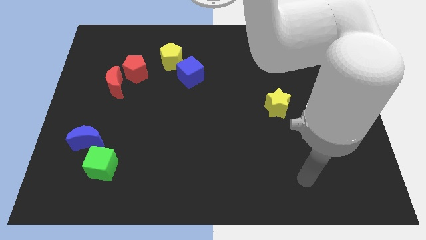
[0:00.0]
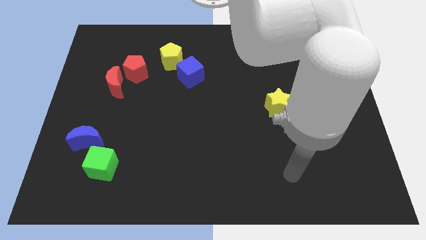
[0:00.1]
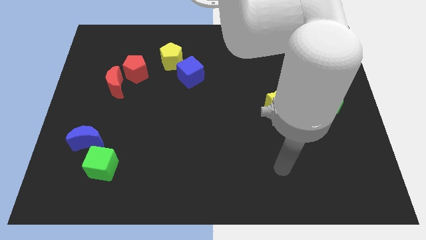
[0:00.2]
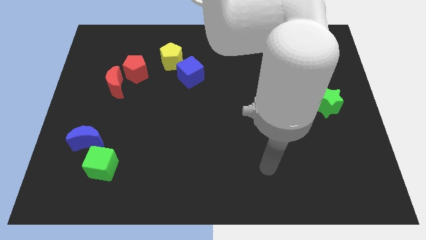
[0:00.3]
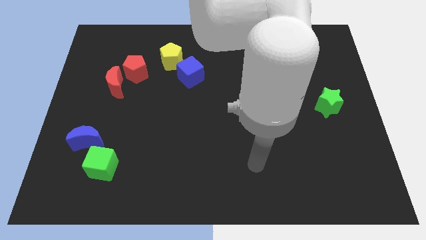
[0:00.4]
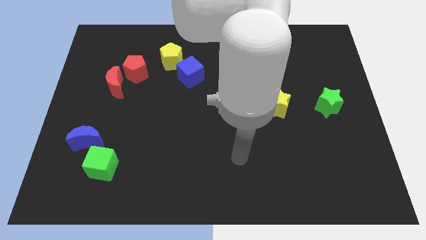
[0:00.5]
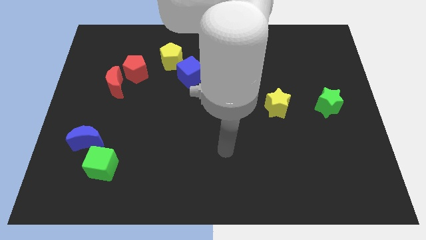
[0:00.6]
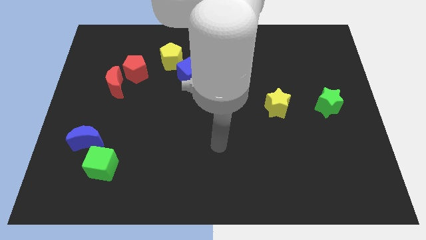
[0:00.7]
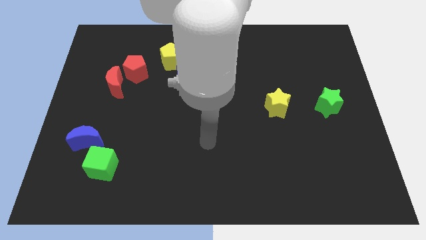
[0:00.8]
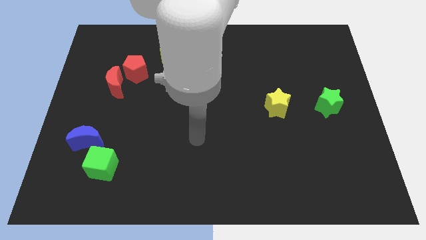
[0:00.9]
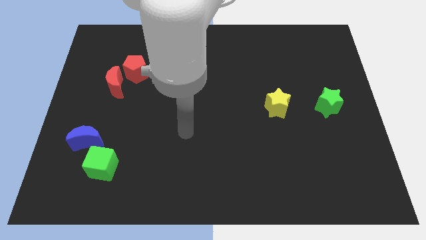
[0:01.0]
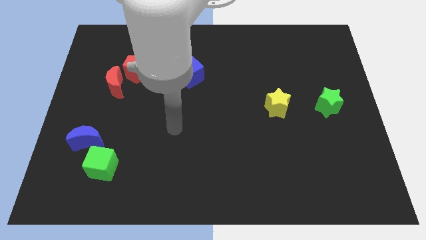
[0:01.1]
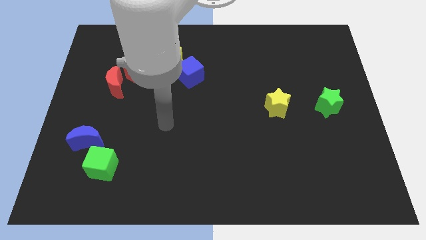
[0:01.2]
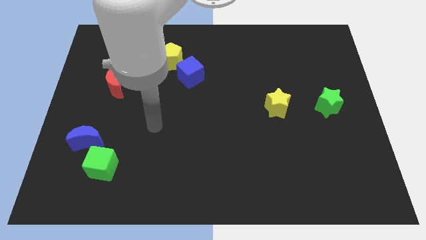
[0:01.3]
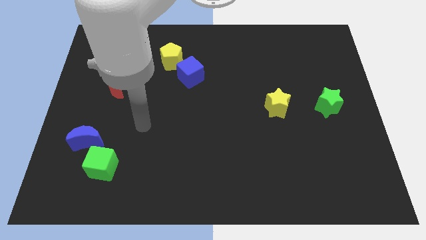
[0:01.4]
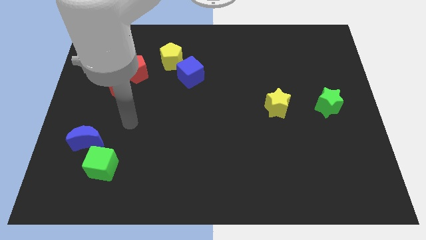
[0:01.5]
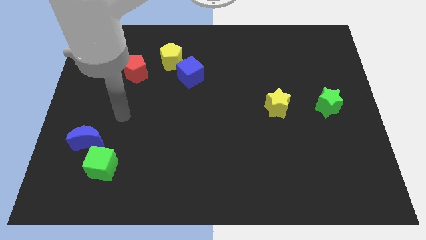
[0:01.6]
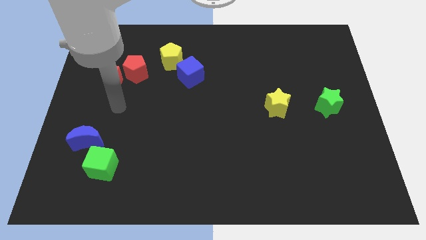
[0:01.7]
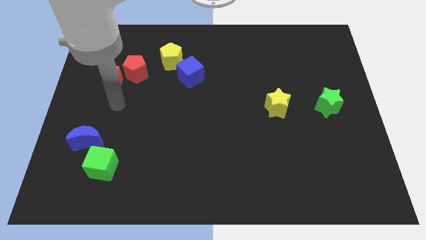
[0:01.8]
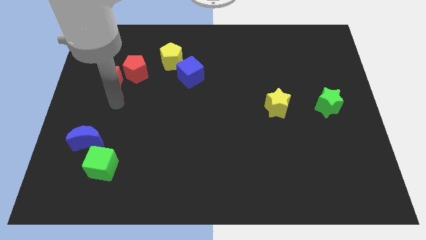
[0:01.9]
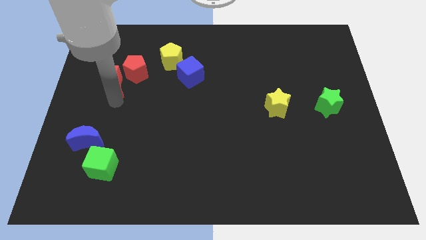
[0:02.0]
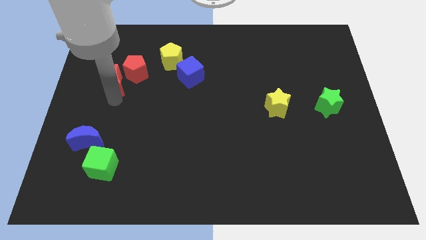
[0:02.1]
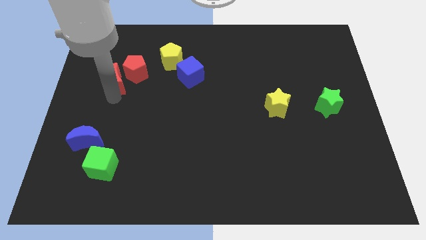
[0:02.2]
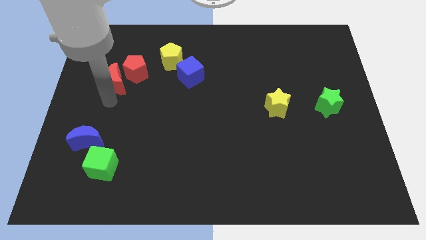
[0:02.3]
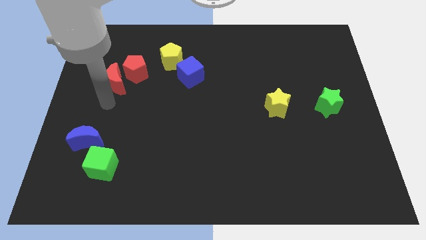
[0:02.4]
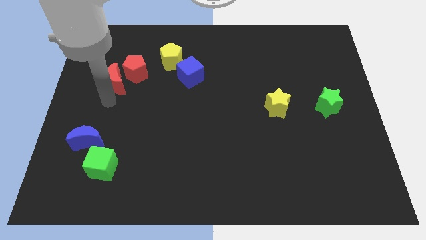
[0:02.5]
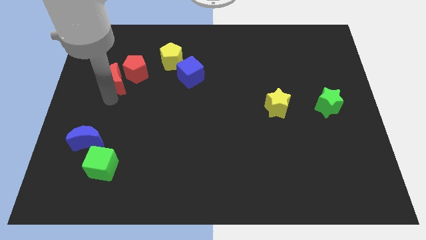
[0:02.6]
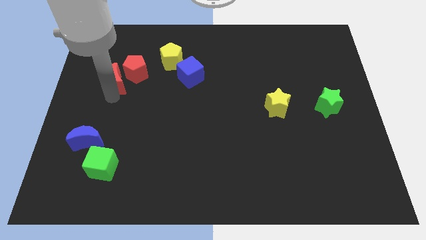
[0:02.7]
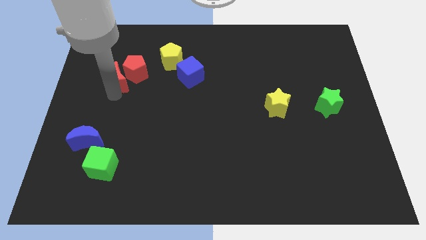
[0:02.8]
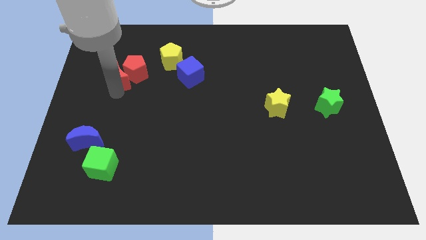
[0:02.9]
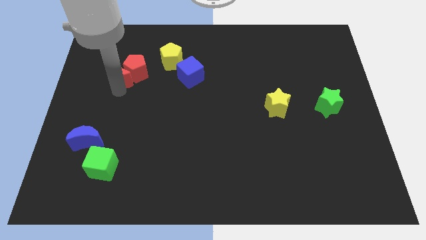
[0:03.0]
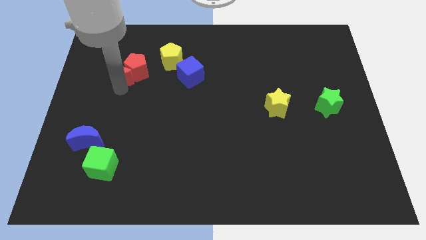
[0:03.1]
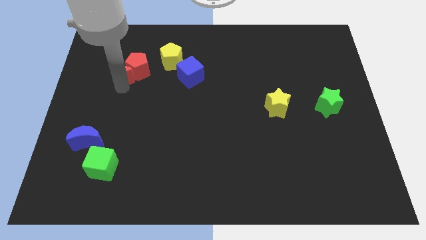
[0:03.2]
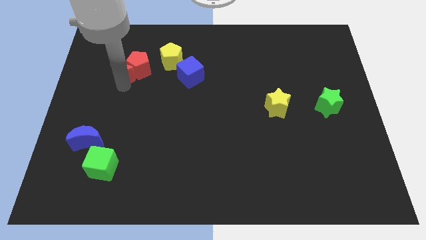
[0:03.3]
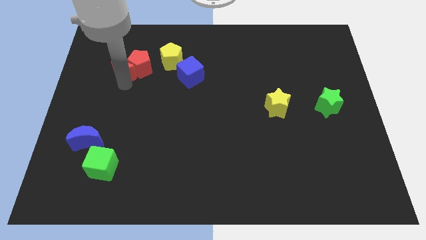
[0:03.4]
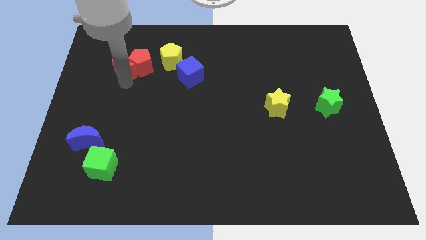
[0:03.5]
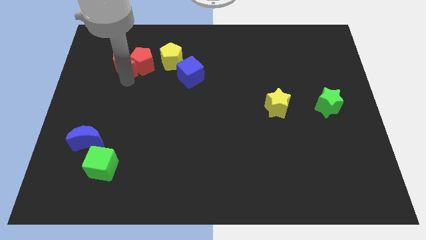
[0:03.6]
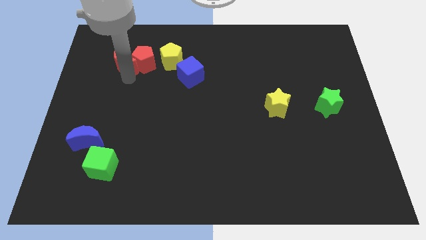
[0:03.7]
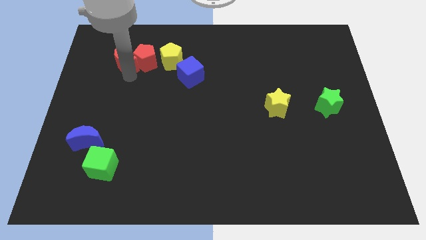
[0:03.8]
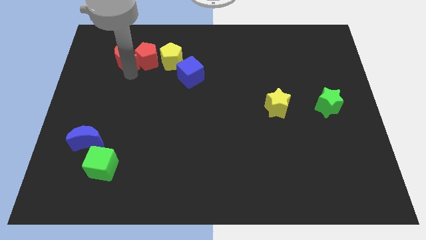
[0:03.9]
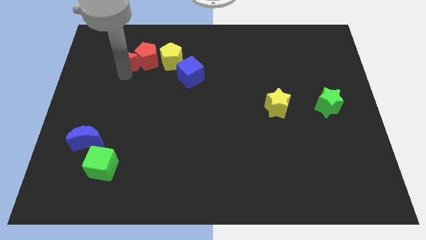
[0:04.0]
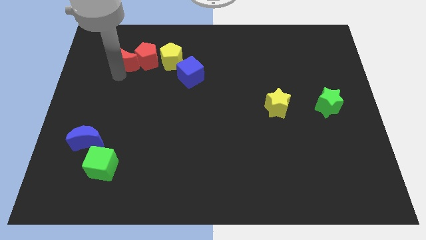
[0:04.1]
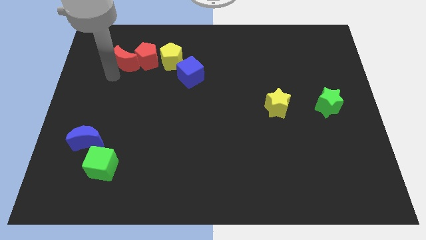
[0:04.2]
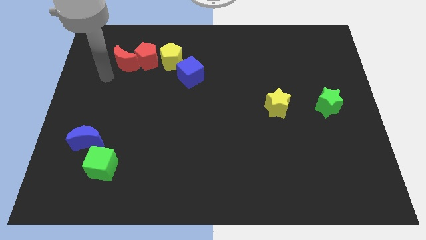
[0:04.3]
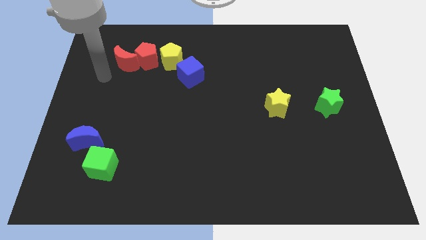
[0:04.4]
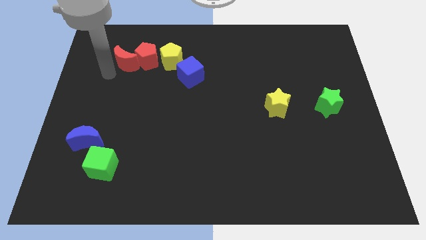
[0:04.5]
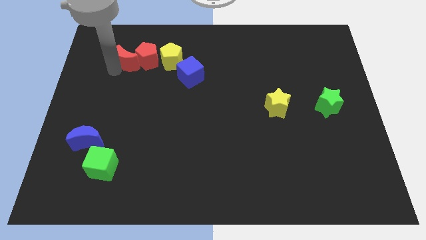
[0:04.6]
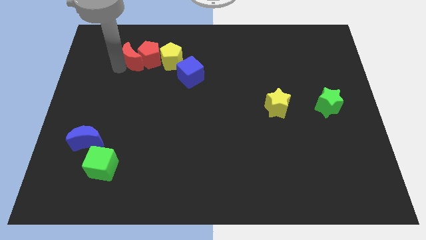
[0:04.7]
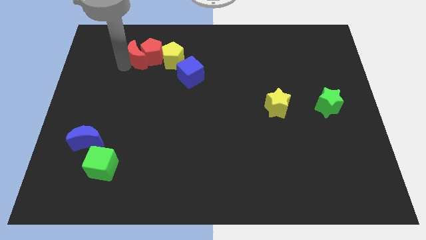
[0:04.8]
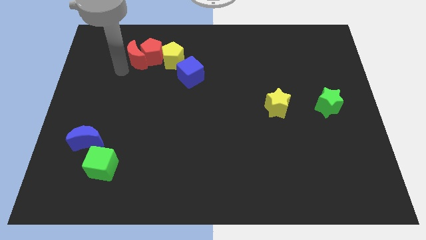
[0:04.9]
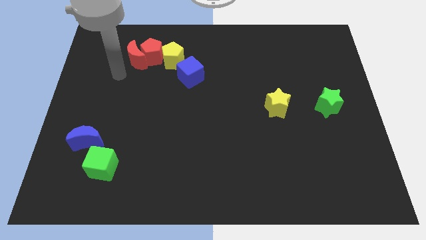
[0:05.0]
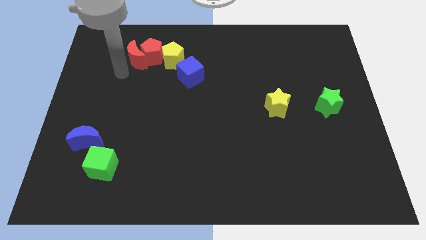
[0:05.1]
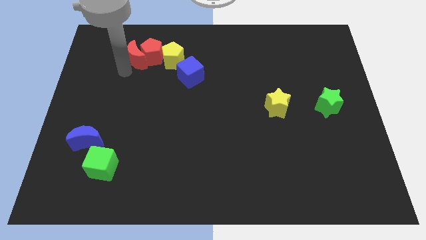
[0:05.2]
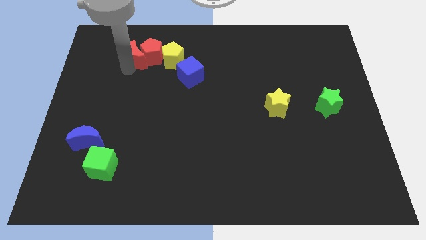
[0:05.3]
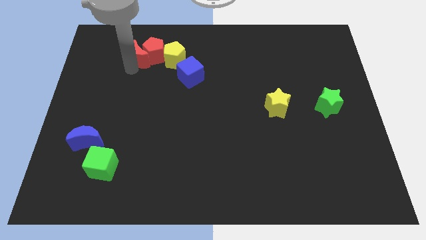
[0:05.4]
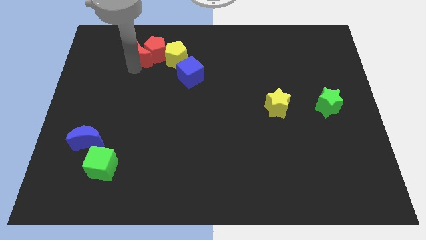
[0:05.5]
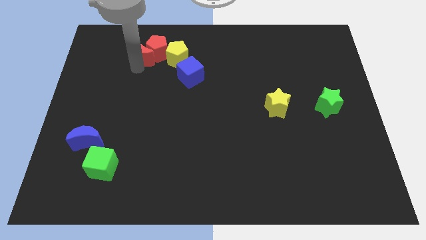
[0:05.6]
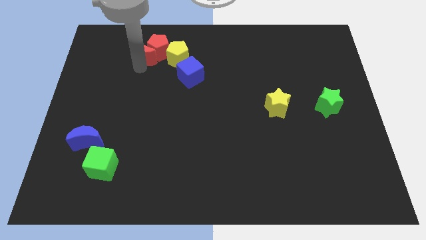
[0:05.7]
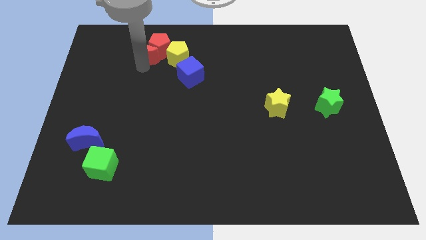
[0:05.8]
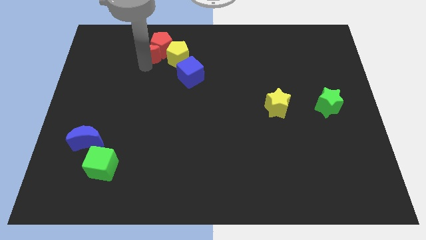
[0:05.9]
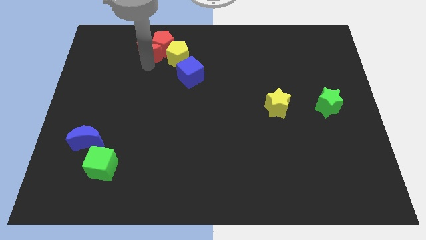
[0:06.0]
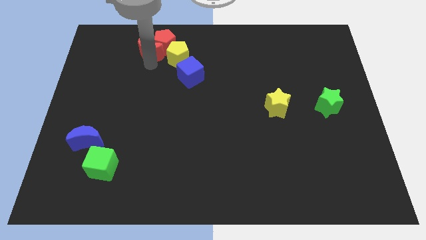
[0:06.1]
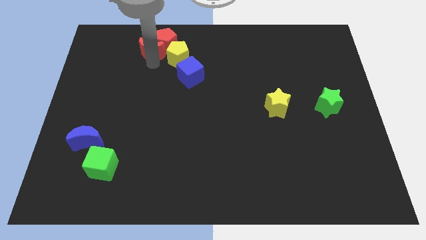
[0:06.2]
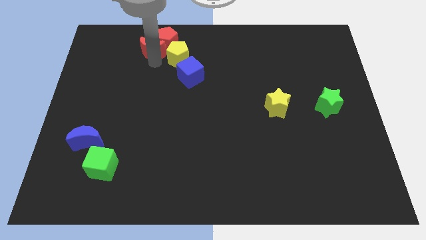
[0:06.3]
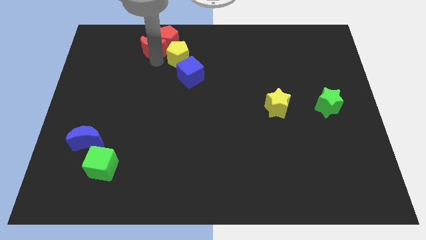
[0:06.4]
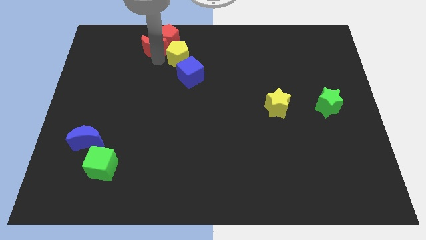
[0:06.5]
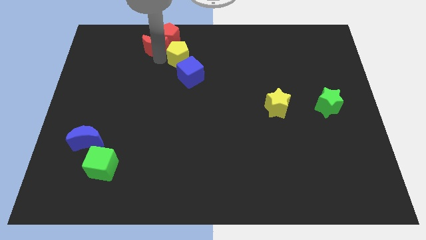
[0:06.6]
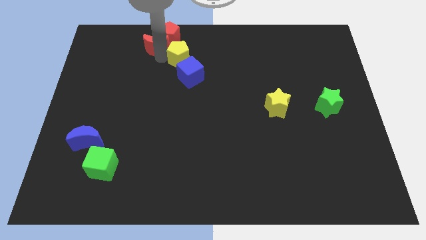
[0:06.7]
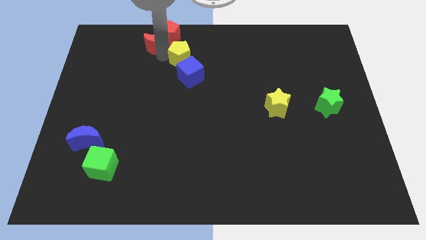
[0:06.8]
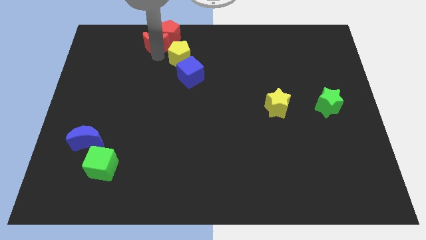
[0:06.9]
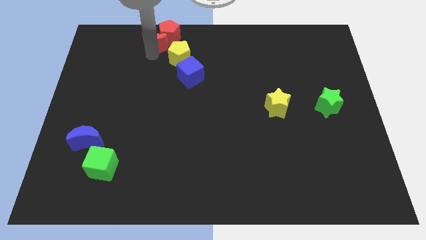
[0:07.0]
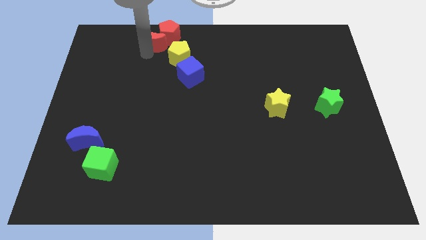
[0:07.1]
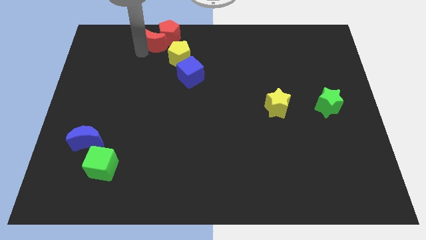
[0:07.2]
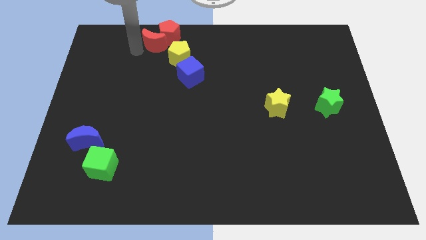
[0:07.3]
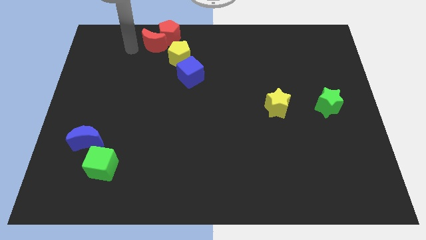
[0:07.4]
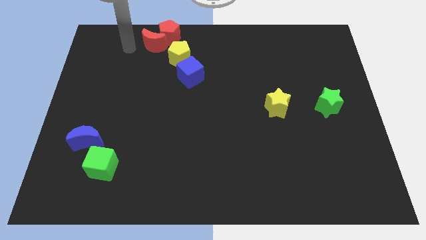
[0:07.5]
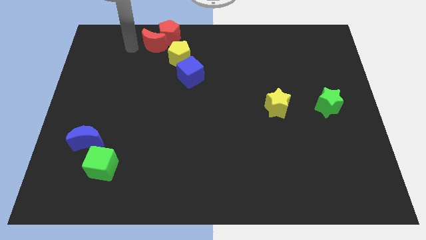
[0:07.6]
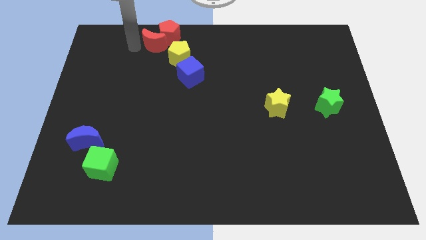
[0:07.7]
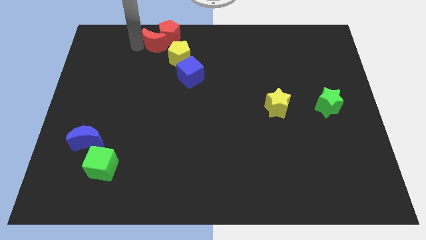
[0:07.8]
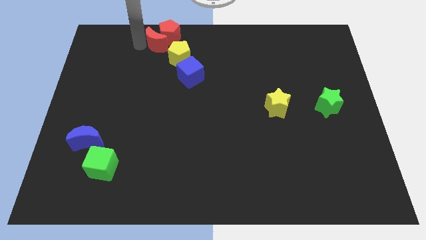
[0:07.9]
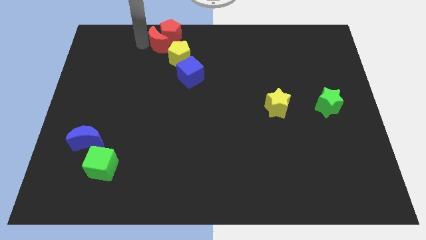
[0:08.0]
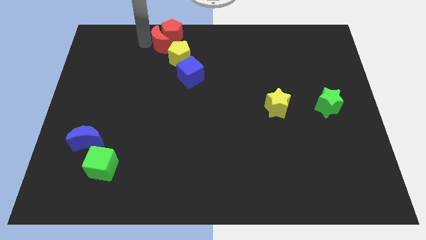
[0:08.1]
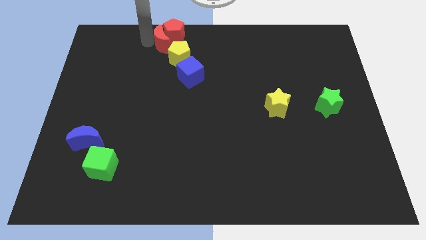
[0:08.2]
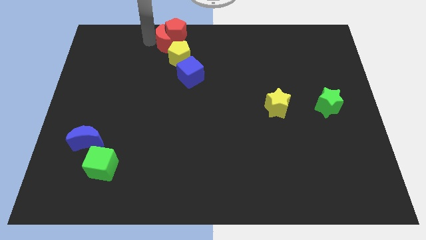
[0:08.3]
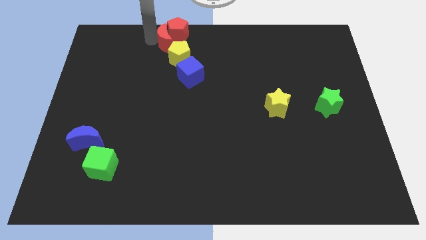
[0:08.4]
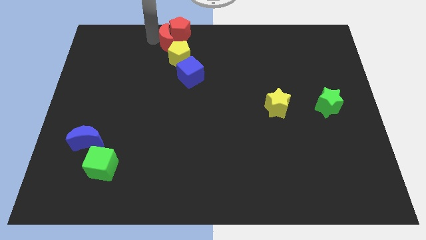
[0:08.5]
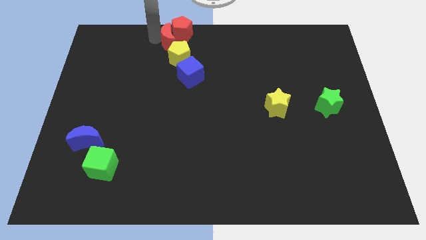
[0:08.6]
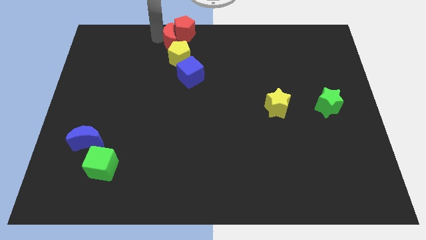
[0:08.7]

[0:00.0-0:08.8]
push the red moon to the top side
